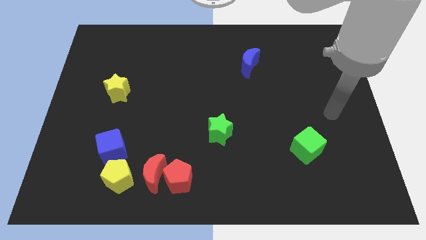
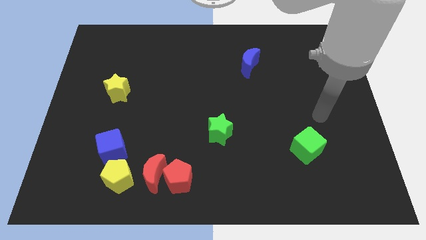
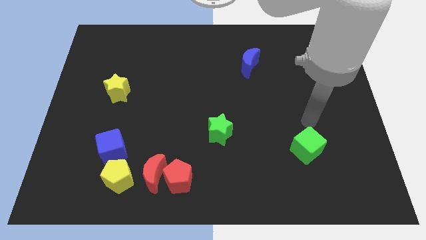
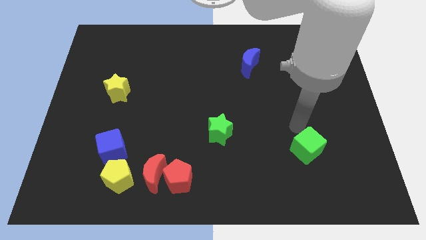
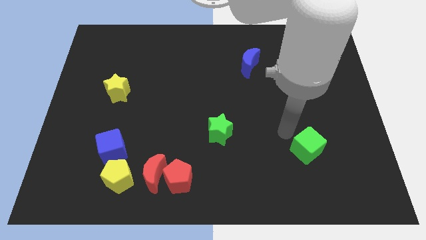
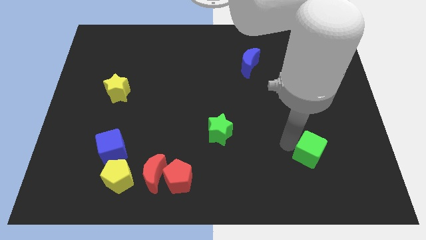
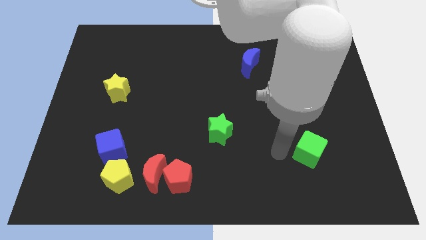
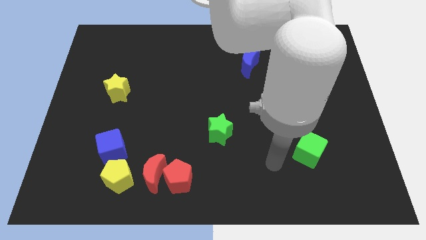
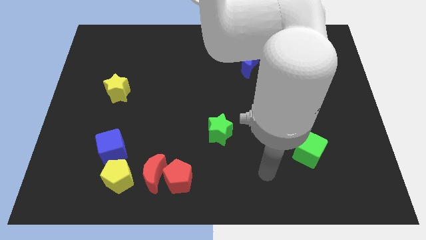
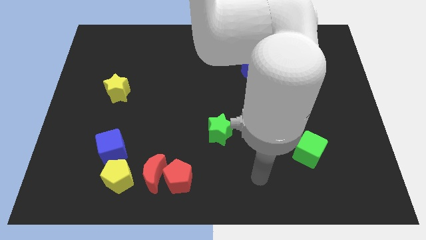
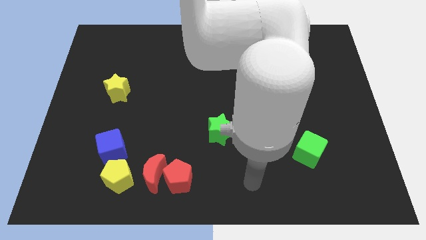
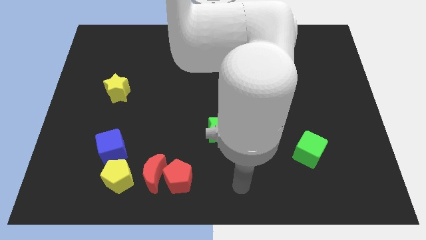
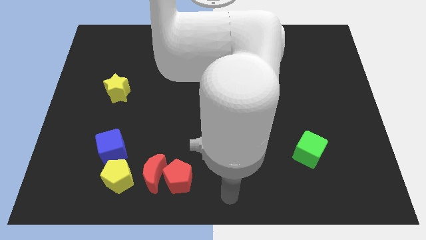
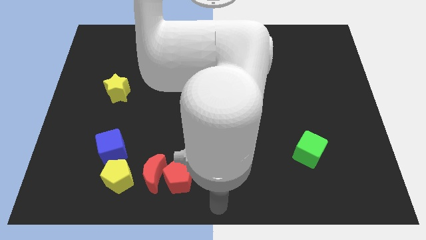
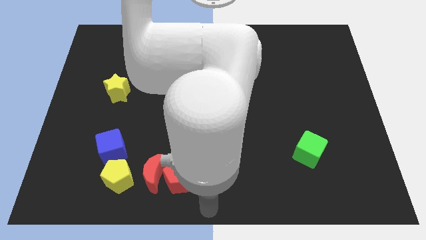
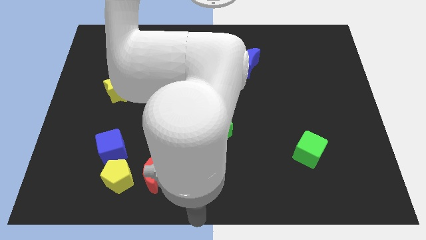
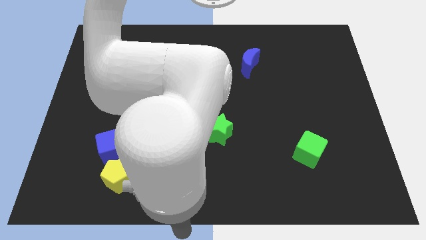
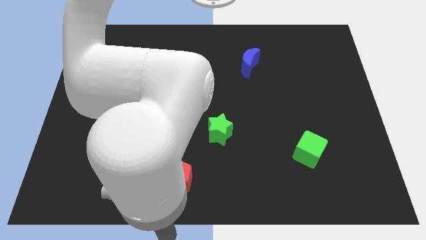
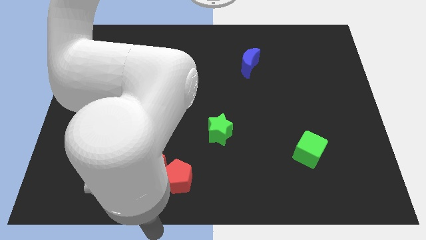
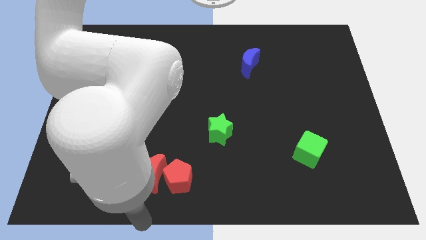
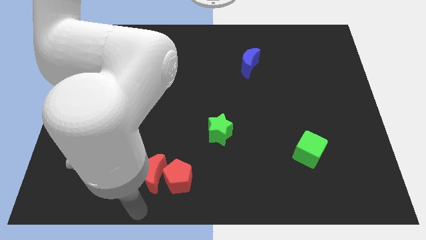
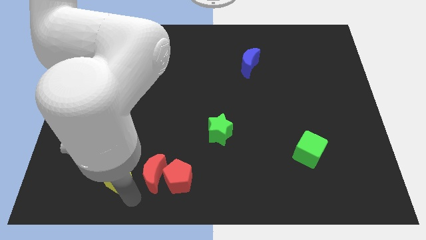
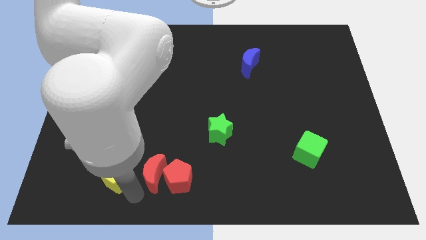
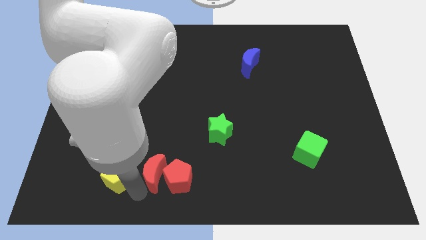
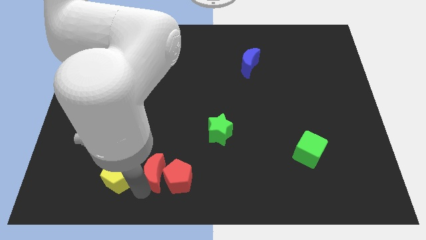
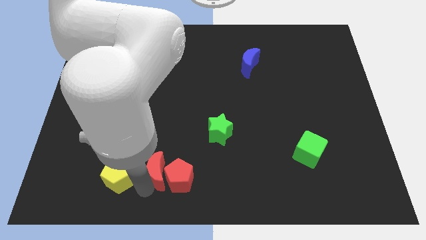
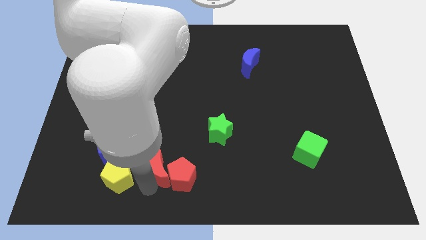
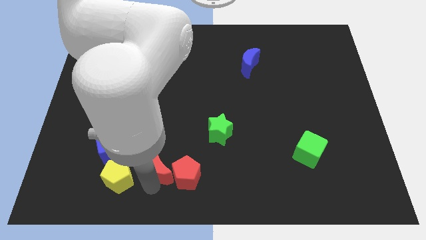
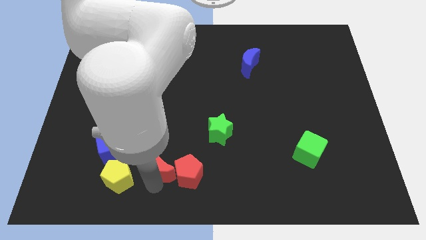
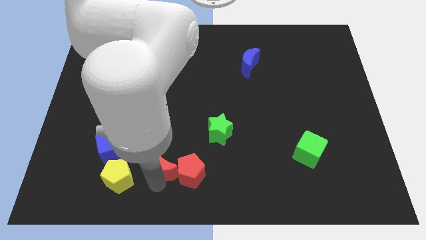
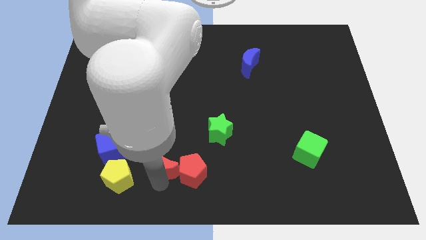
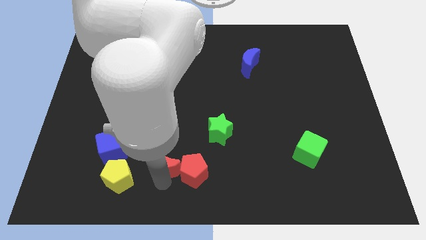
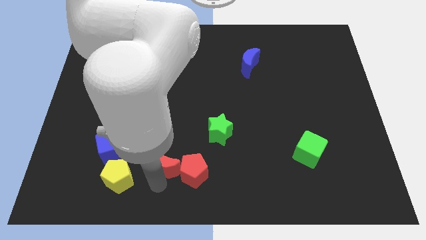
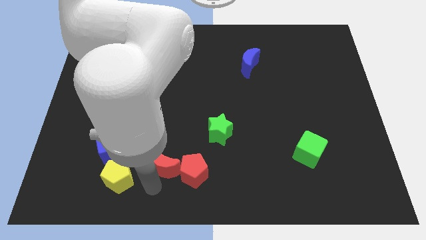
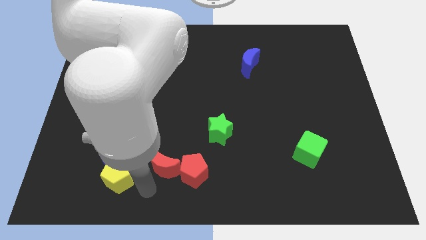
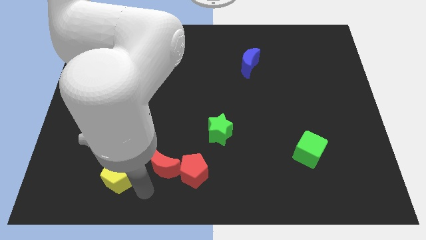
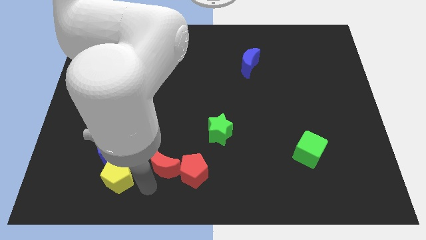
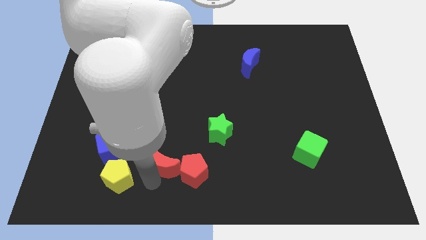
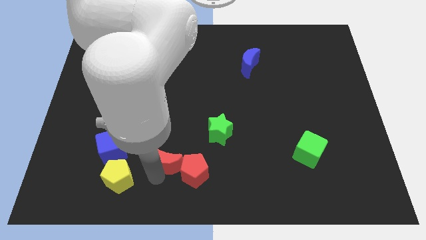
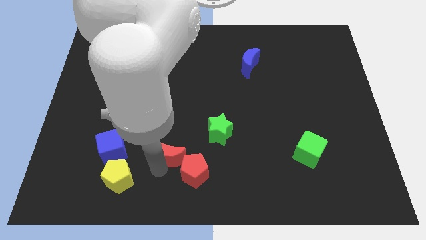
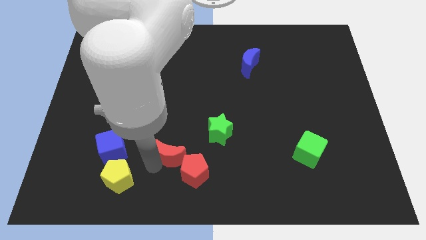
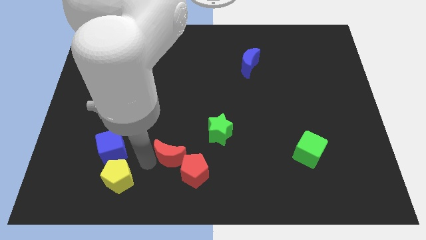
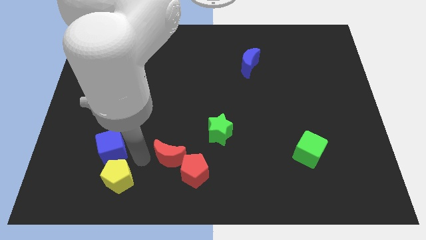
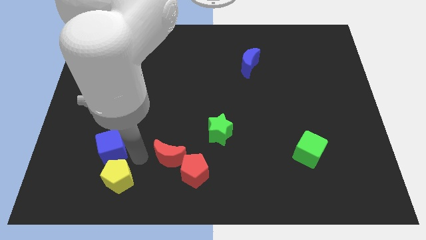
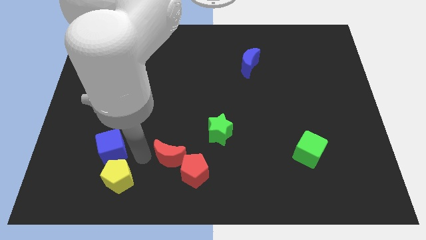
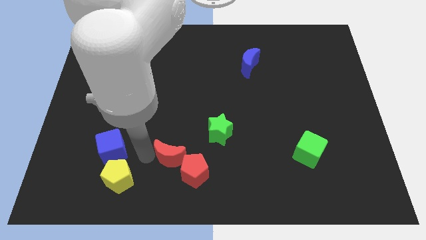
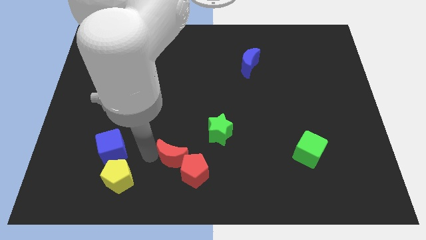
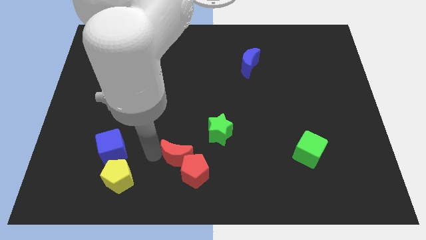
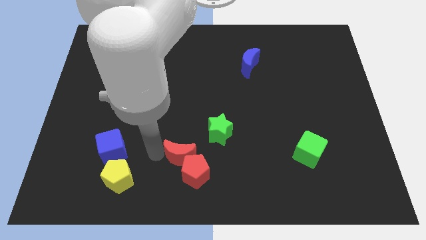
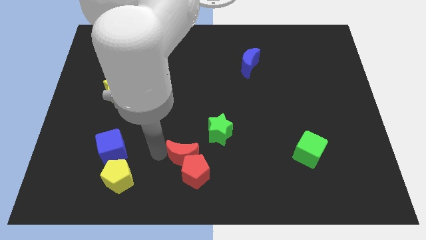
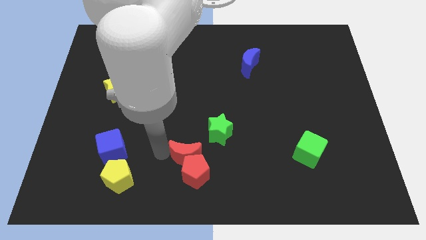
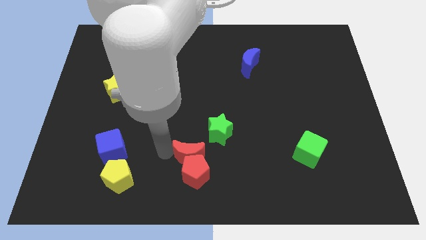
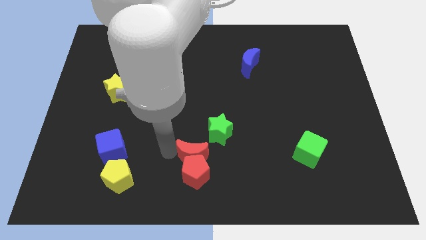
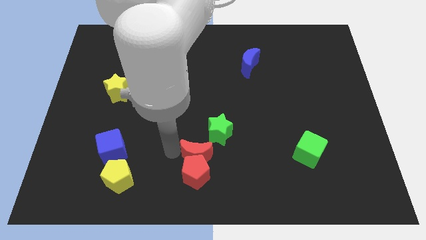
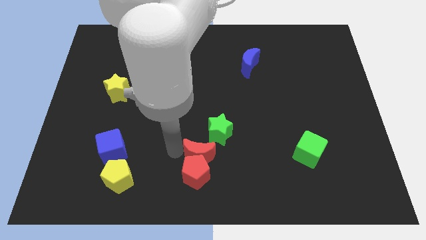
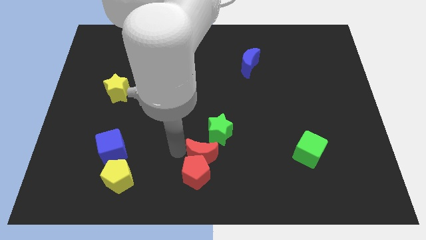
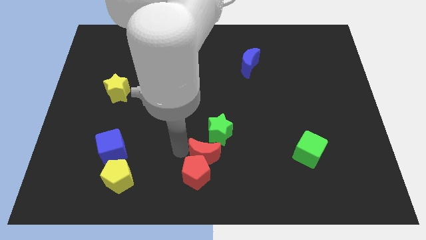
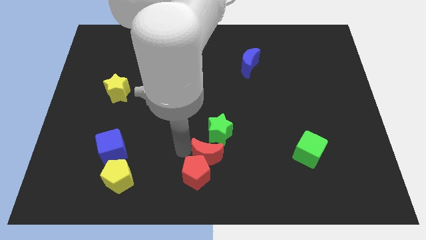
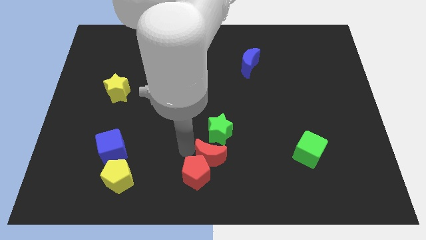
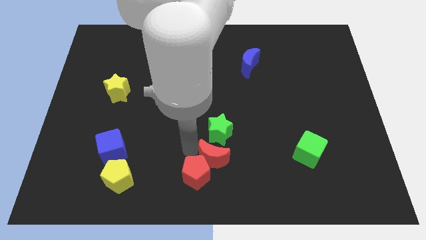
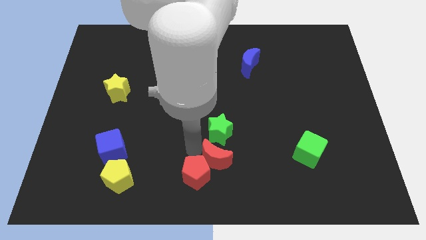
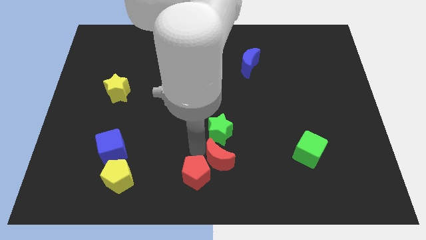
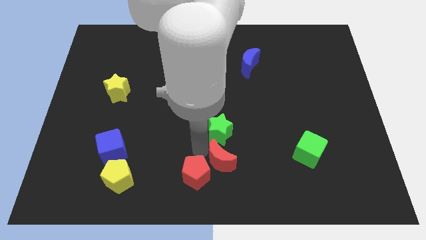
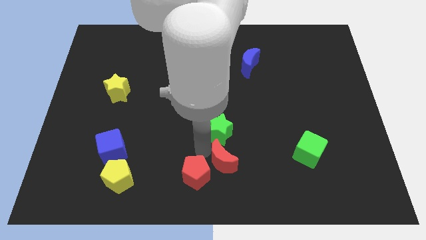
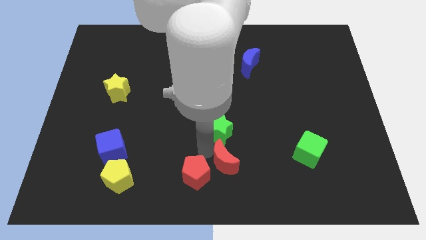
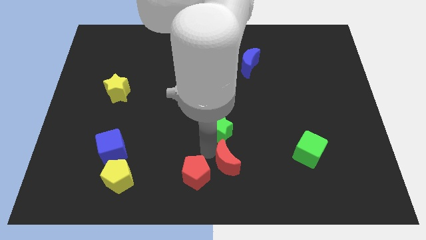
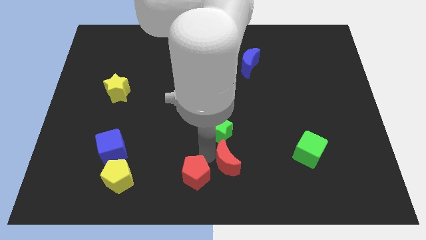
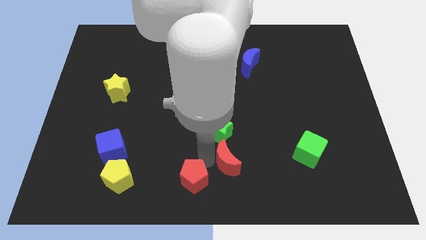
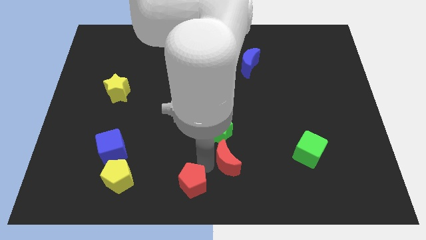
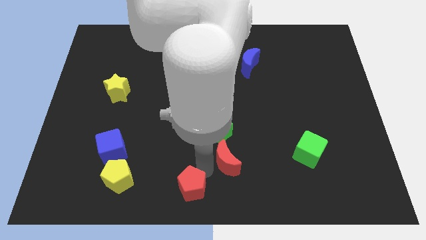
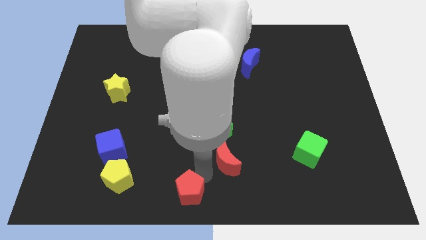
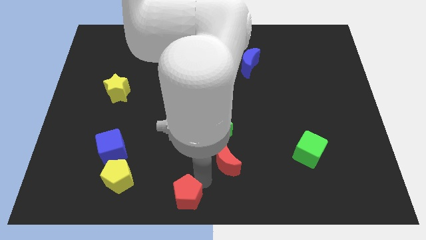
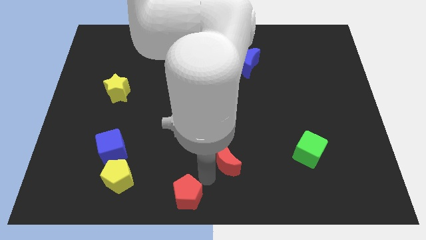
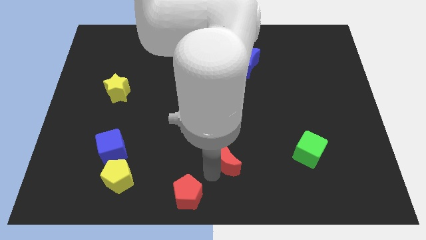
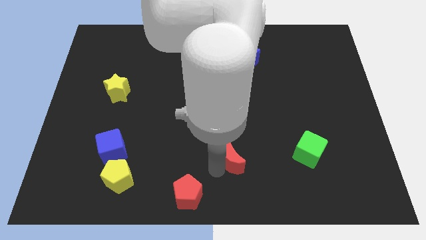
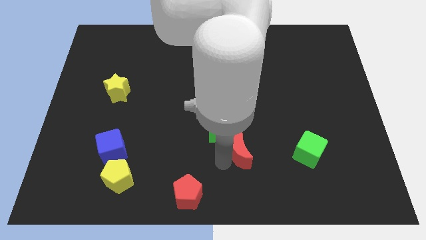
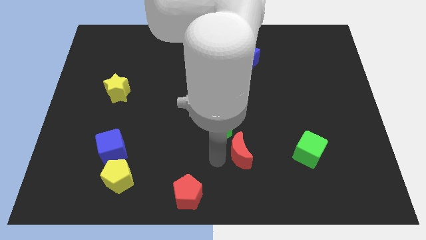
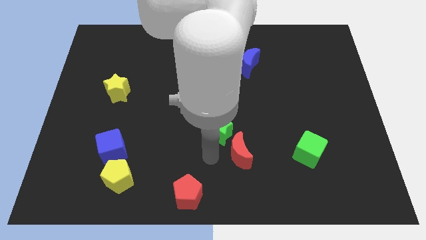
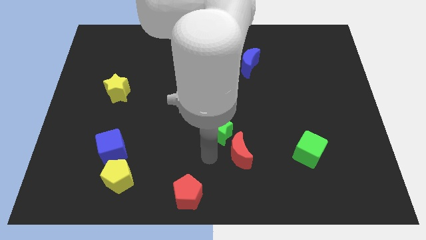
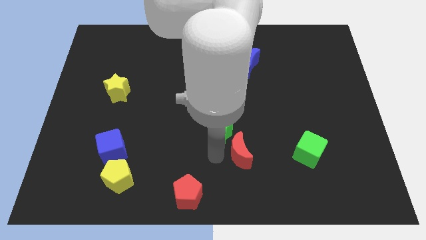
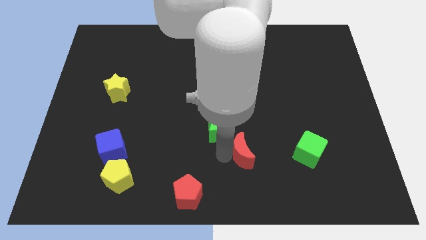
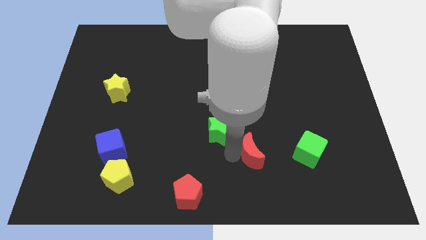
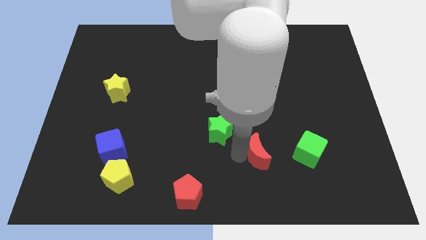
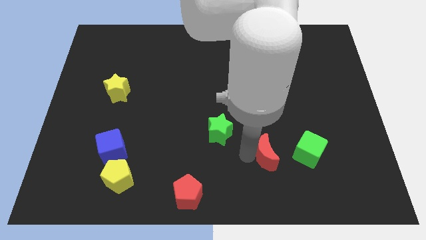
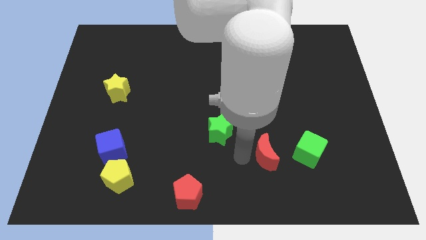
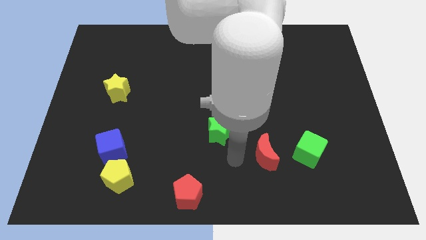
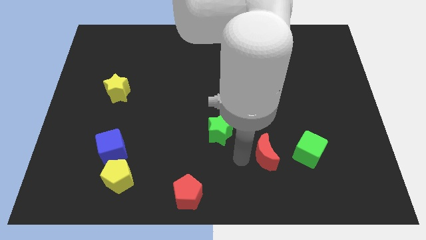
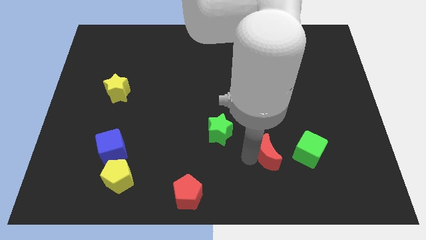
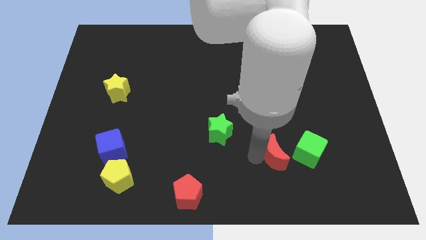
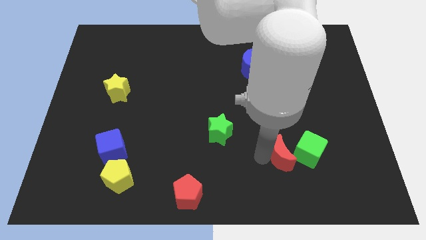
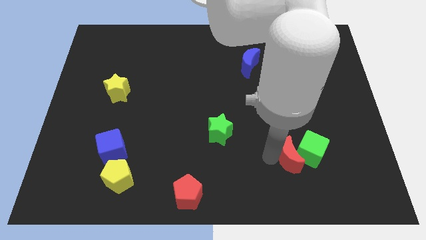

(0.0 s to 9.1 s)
put the red moon to the green cube
